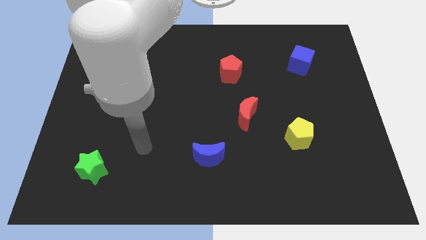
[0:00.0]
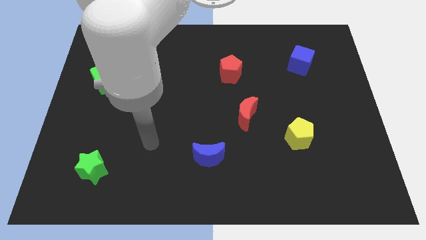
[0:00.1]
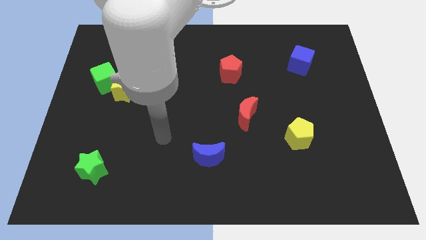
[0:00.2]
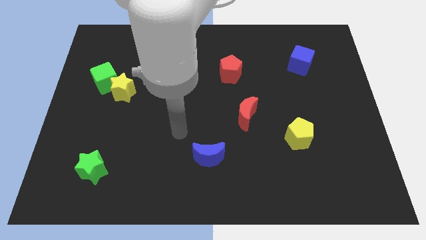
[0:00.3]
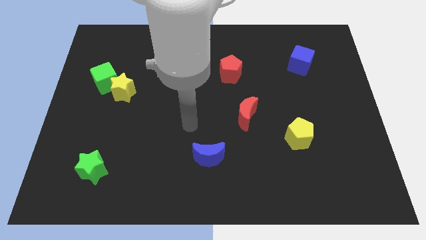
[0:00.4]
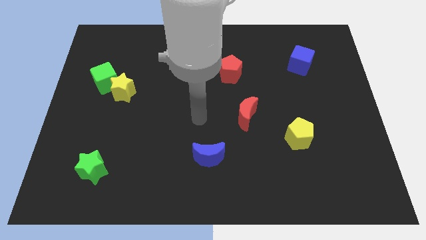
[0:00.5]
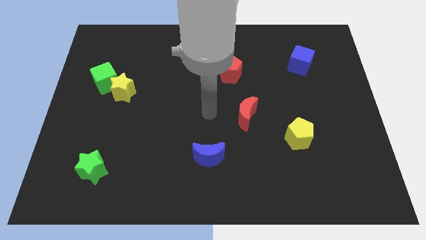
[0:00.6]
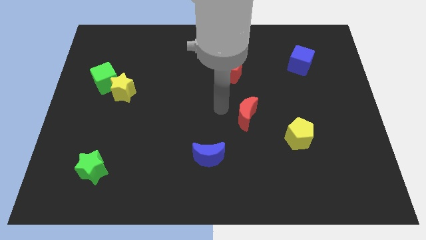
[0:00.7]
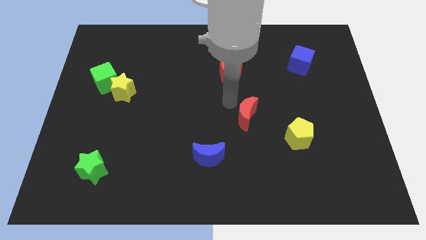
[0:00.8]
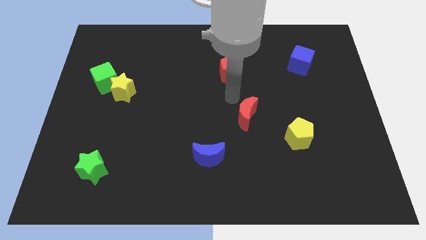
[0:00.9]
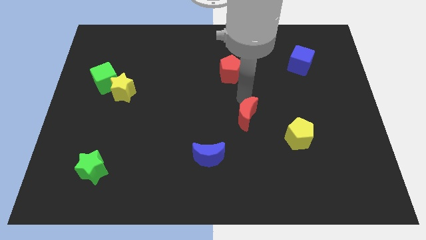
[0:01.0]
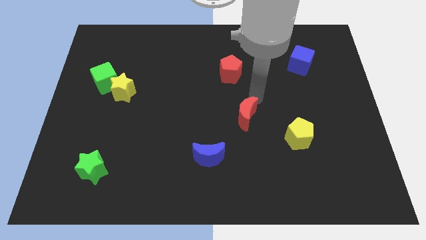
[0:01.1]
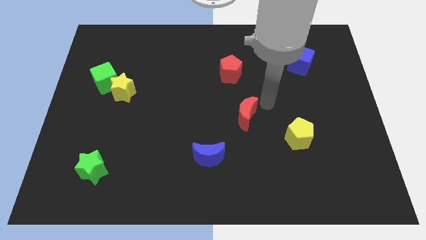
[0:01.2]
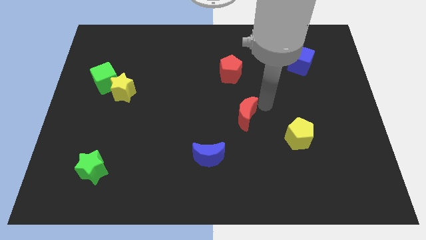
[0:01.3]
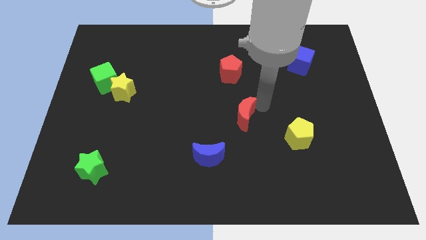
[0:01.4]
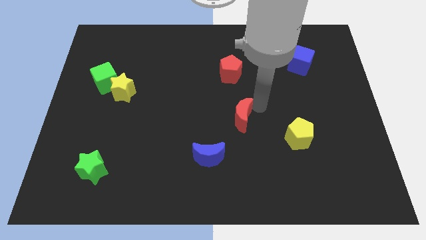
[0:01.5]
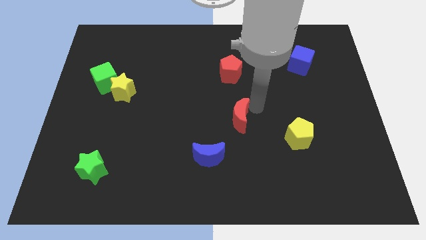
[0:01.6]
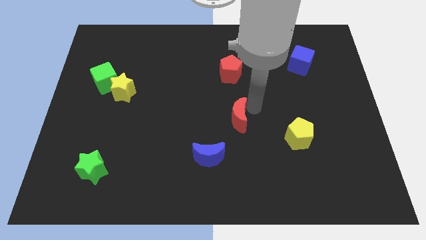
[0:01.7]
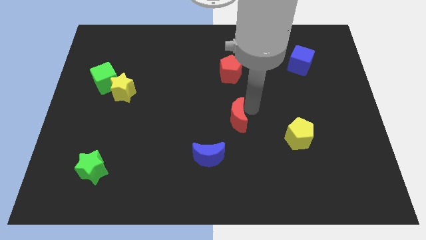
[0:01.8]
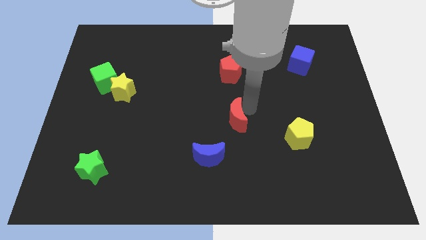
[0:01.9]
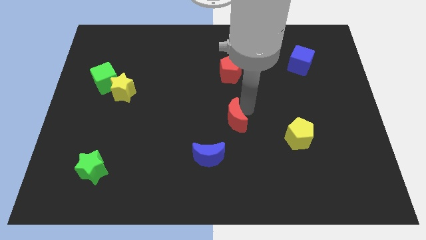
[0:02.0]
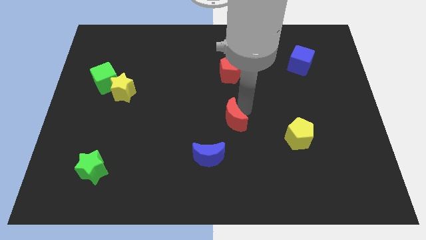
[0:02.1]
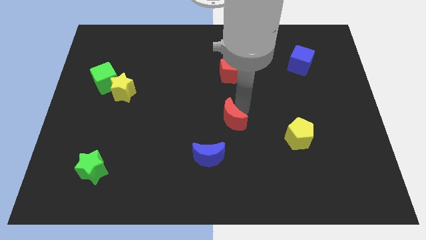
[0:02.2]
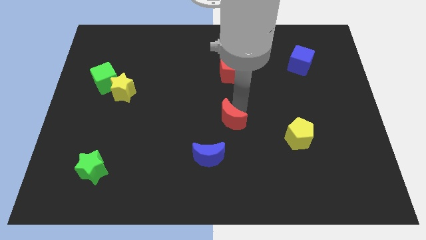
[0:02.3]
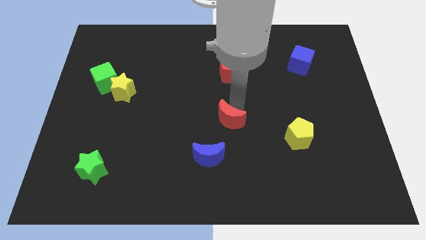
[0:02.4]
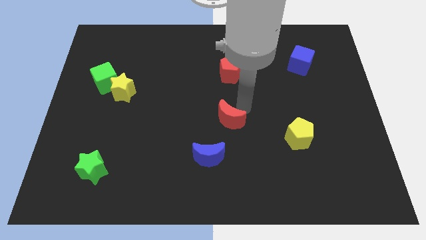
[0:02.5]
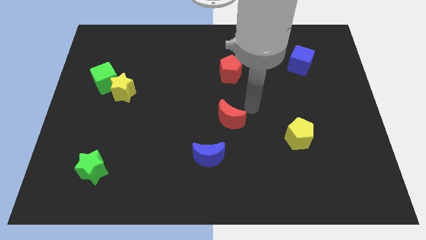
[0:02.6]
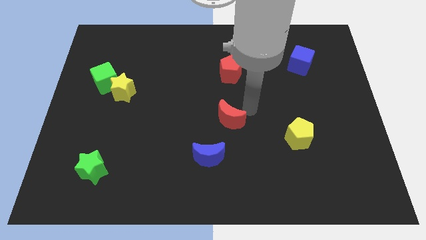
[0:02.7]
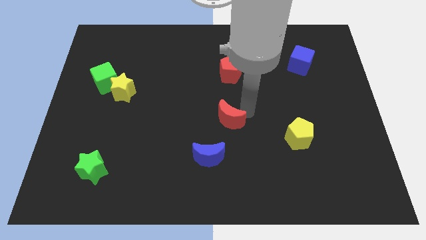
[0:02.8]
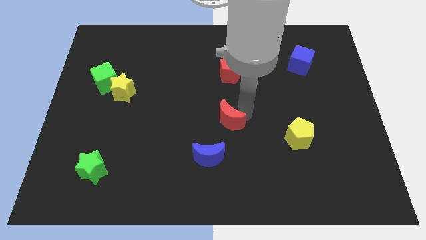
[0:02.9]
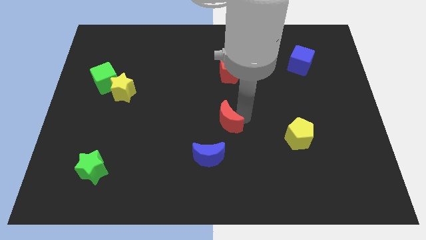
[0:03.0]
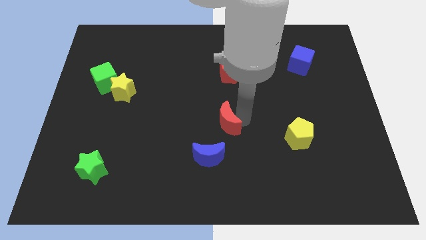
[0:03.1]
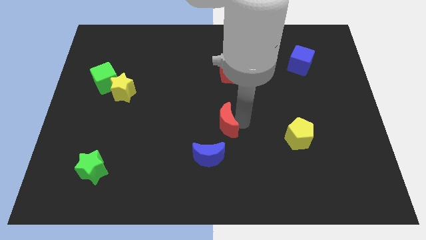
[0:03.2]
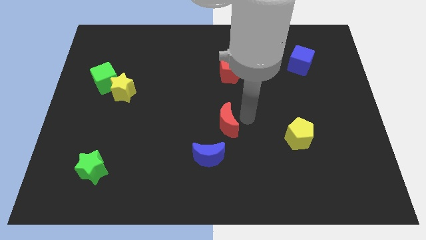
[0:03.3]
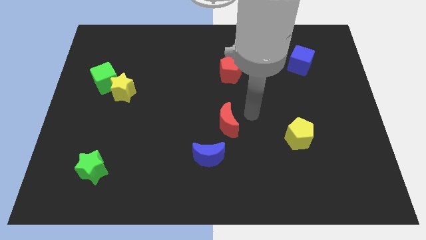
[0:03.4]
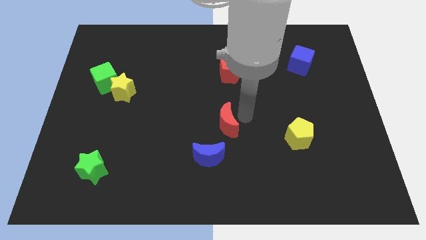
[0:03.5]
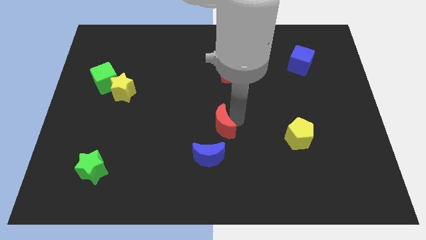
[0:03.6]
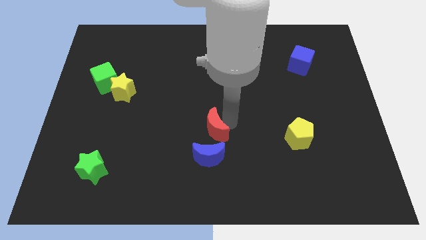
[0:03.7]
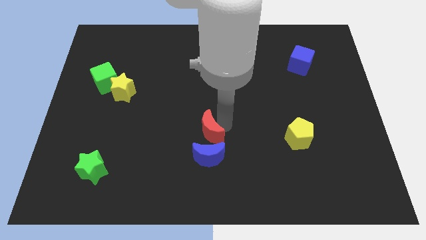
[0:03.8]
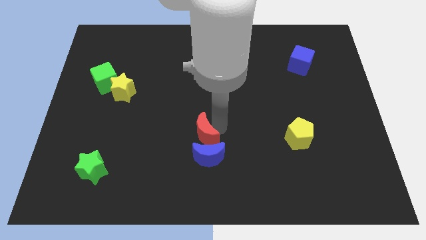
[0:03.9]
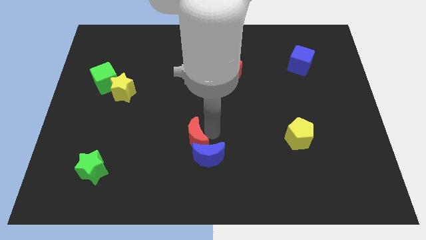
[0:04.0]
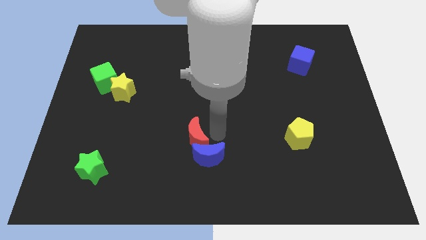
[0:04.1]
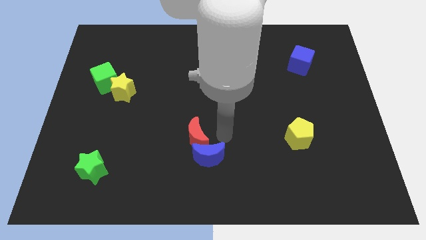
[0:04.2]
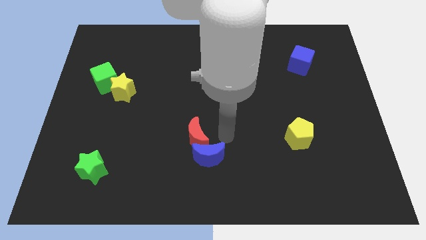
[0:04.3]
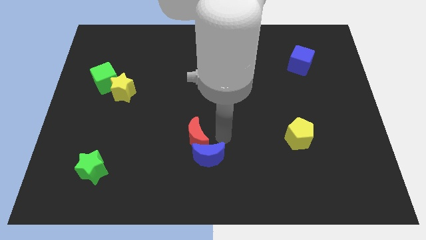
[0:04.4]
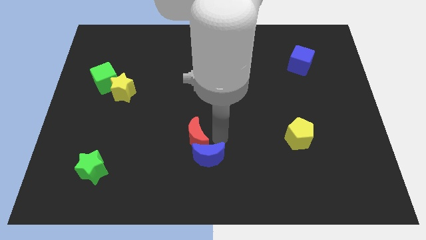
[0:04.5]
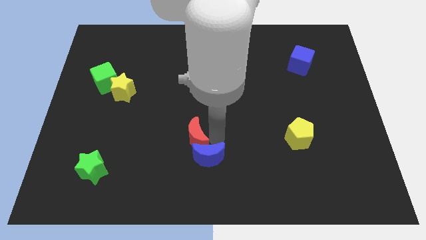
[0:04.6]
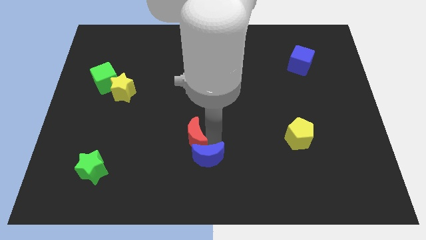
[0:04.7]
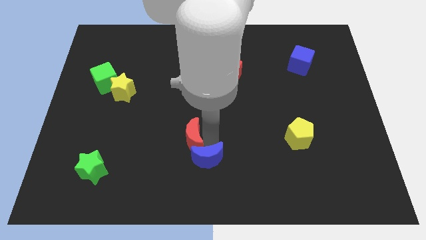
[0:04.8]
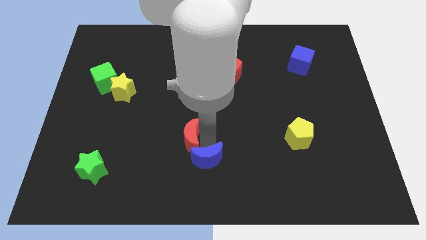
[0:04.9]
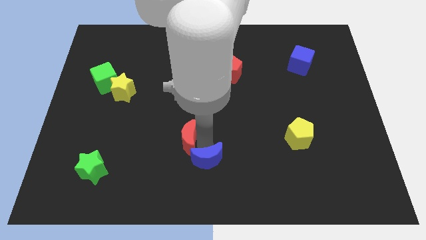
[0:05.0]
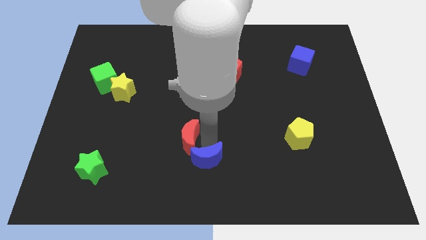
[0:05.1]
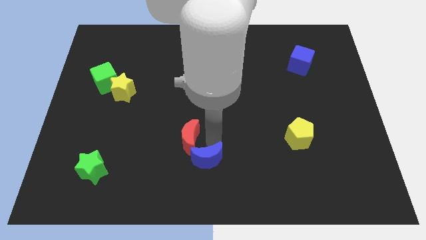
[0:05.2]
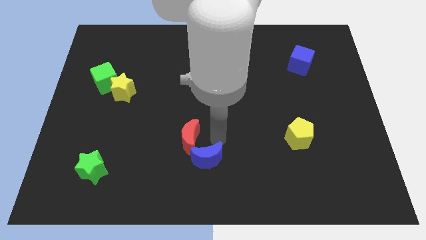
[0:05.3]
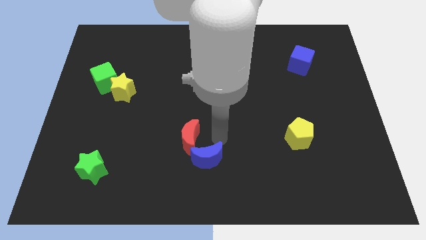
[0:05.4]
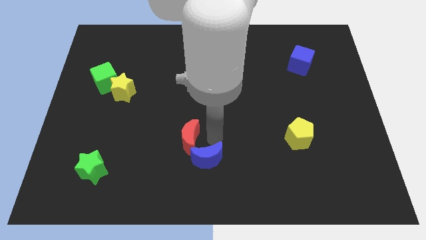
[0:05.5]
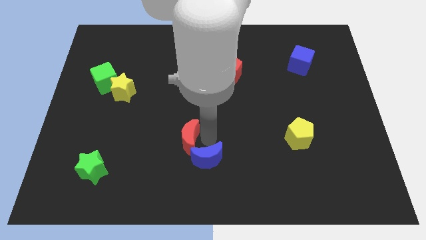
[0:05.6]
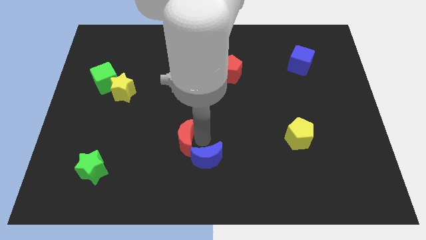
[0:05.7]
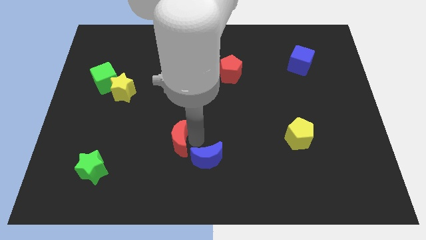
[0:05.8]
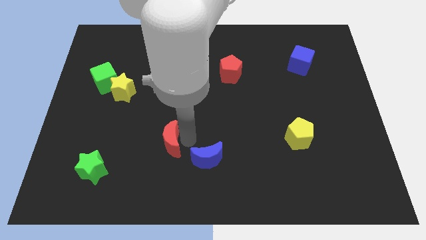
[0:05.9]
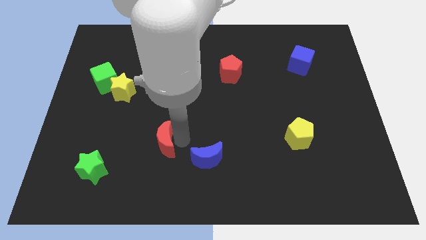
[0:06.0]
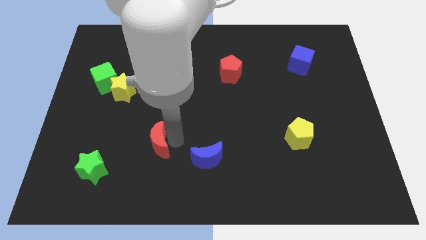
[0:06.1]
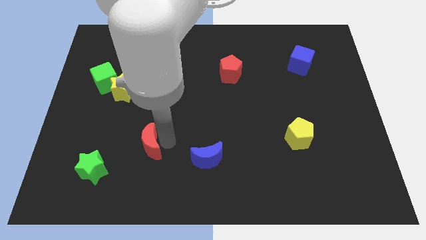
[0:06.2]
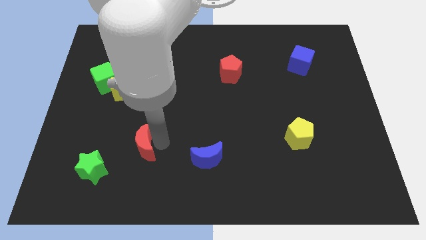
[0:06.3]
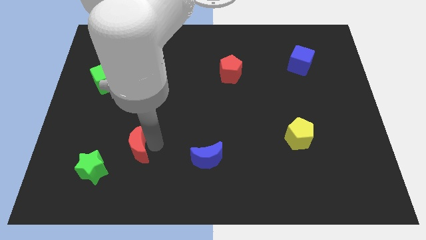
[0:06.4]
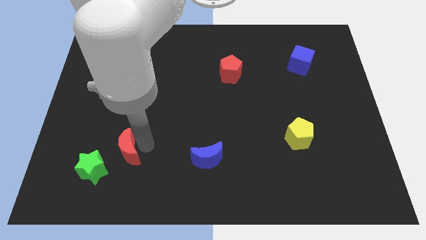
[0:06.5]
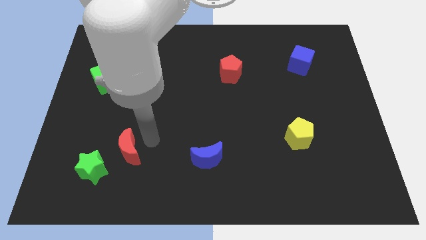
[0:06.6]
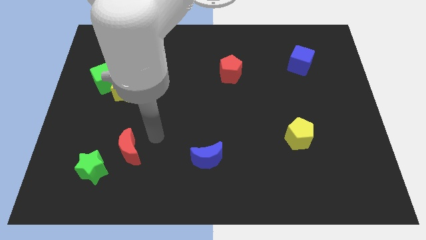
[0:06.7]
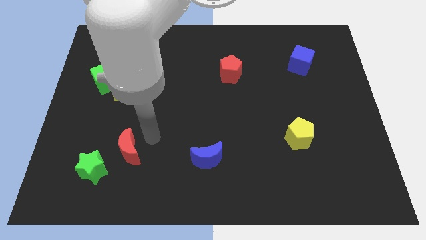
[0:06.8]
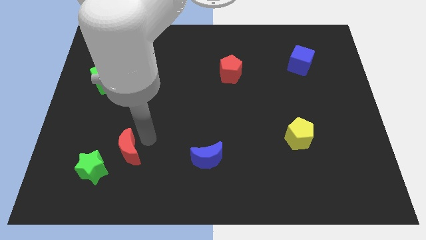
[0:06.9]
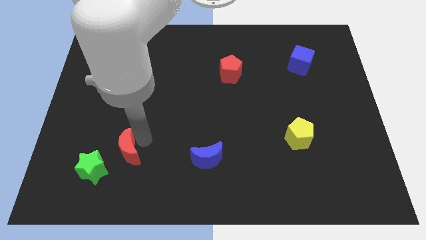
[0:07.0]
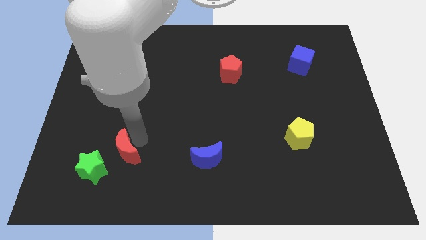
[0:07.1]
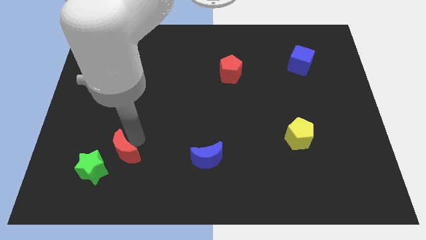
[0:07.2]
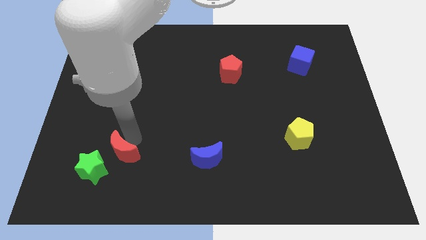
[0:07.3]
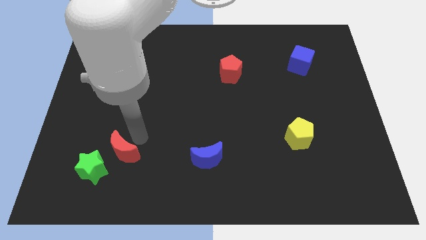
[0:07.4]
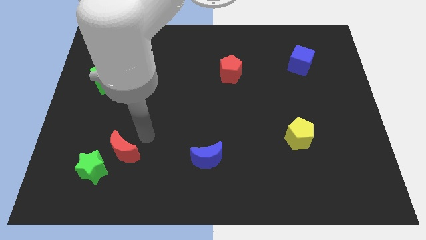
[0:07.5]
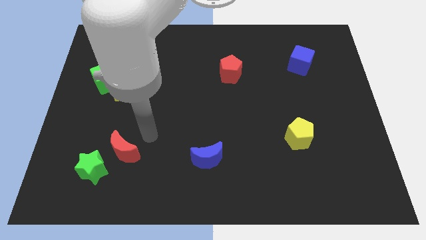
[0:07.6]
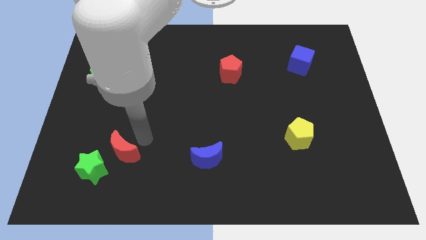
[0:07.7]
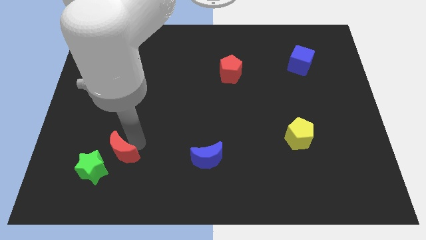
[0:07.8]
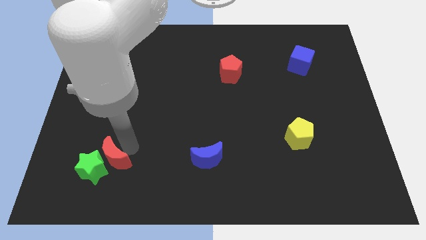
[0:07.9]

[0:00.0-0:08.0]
slide the red moon close to the green star
